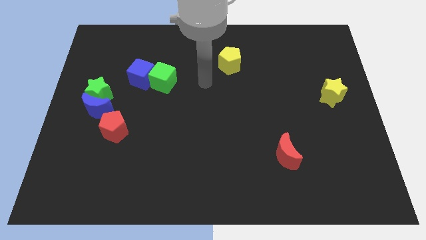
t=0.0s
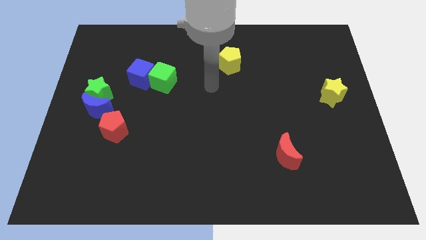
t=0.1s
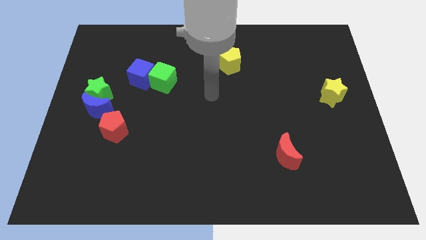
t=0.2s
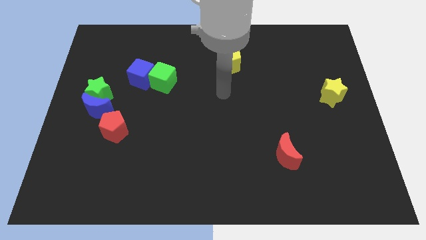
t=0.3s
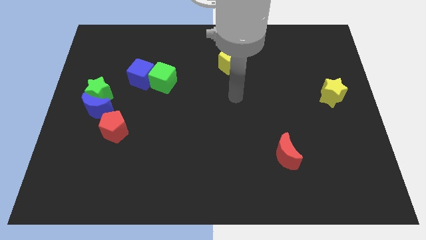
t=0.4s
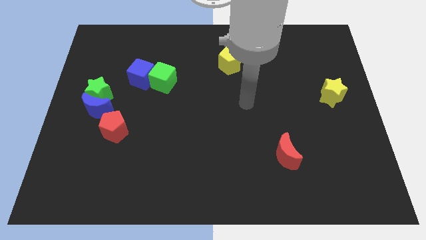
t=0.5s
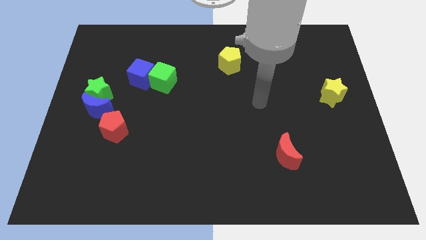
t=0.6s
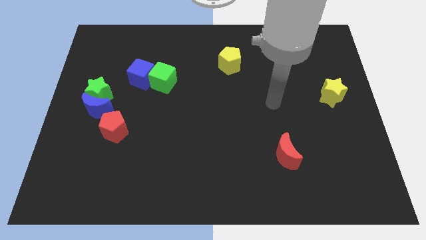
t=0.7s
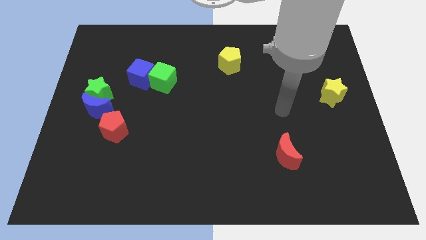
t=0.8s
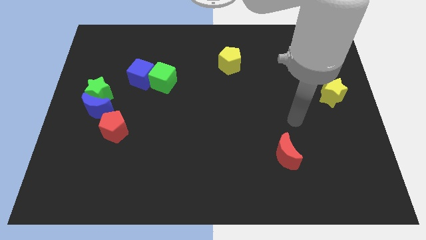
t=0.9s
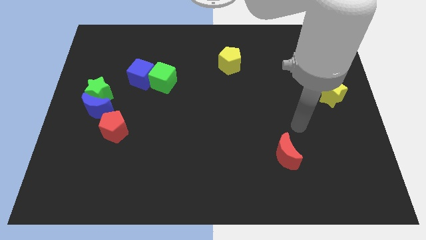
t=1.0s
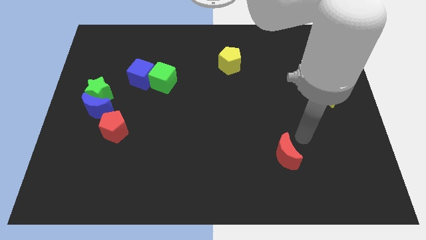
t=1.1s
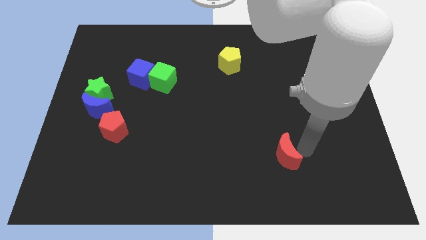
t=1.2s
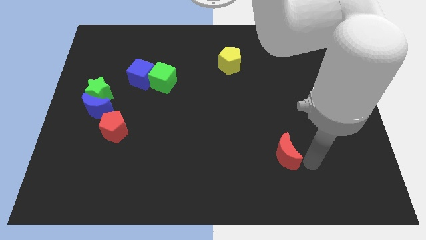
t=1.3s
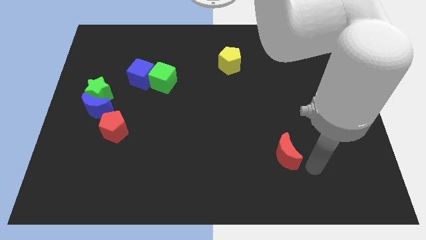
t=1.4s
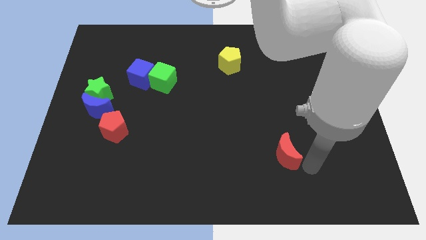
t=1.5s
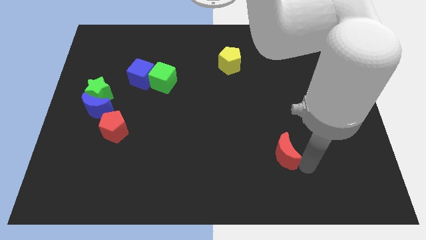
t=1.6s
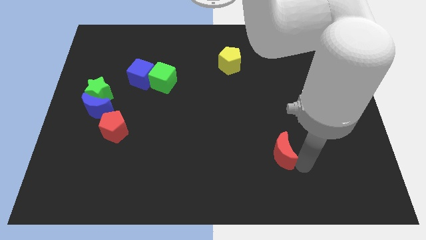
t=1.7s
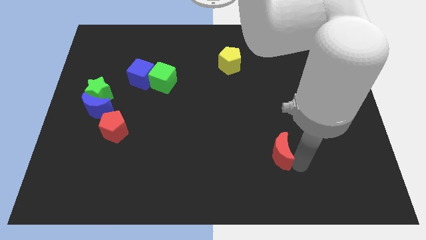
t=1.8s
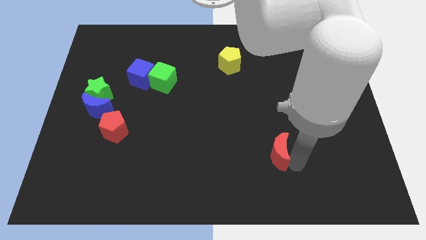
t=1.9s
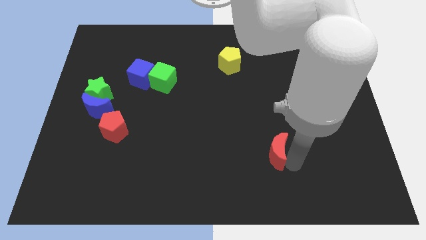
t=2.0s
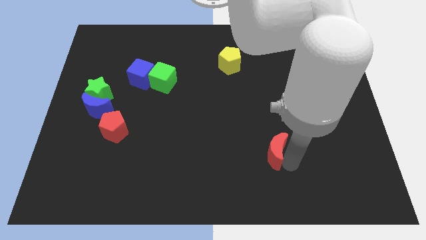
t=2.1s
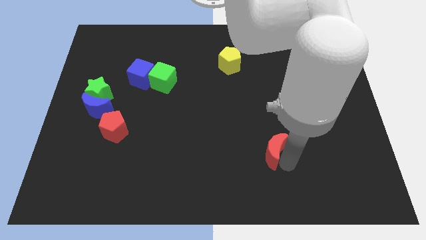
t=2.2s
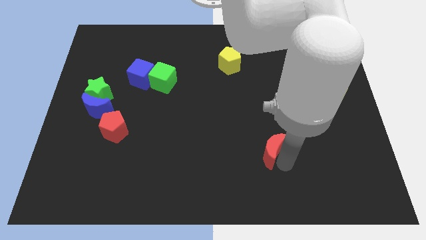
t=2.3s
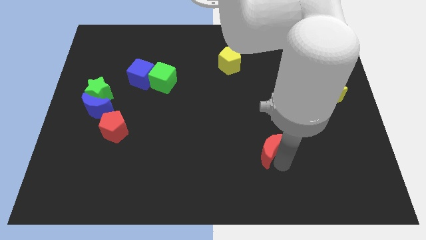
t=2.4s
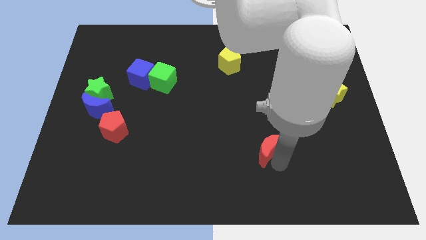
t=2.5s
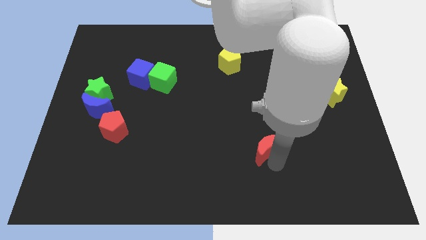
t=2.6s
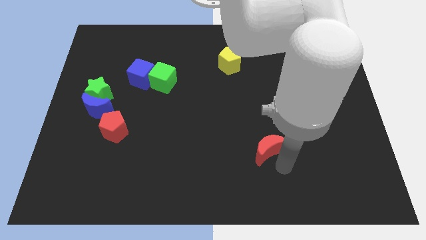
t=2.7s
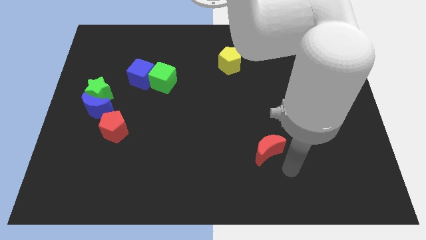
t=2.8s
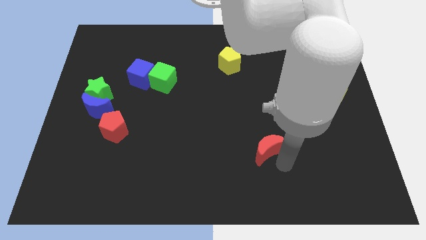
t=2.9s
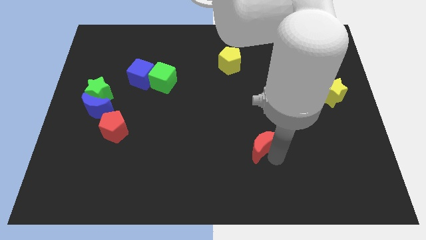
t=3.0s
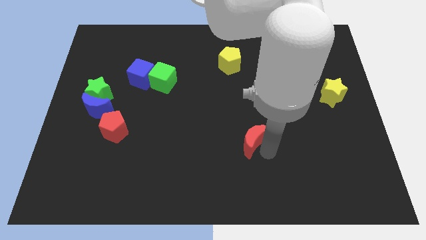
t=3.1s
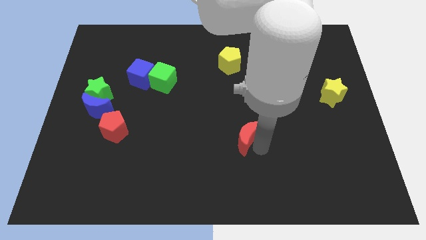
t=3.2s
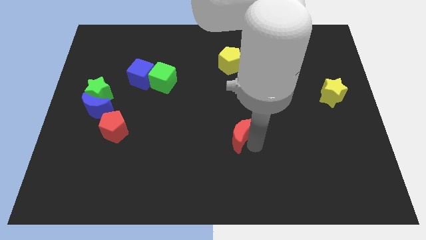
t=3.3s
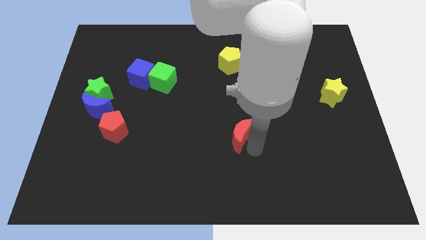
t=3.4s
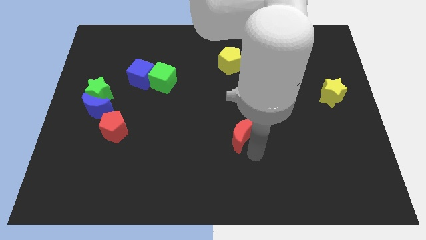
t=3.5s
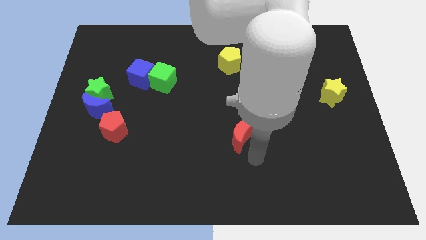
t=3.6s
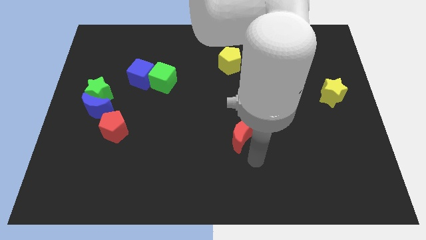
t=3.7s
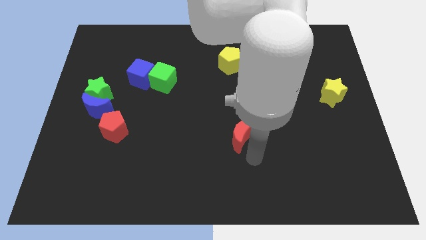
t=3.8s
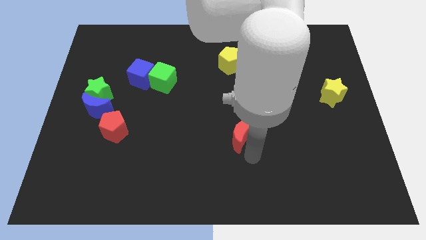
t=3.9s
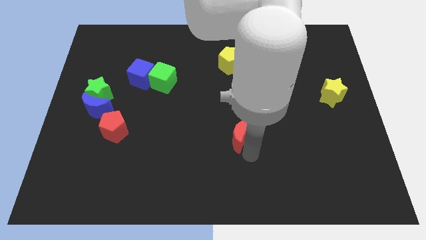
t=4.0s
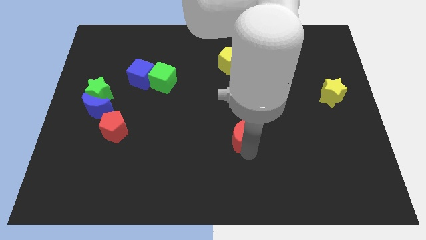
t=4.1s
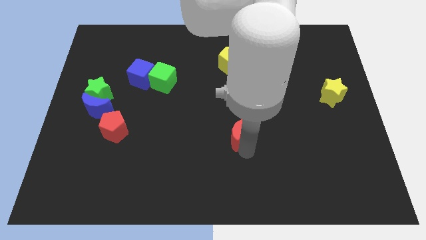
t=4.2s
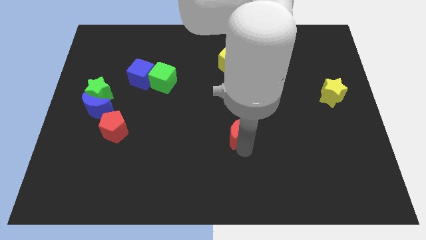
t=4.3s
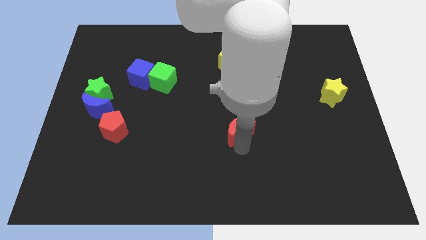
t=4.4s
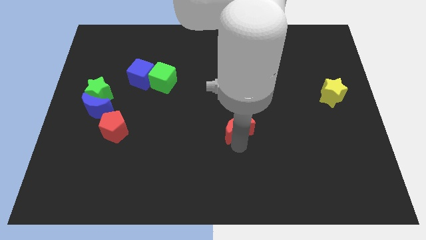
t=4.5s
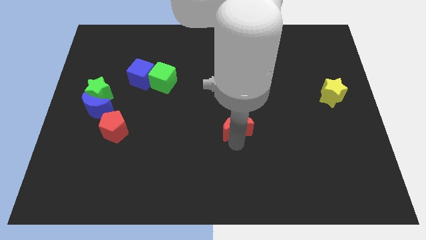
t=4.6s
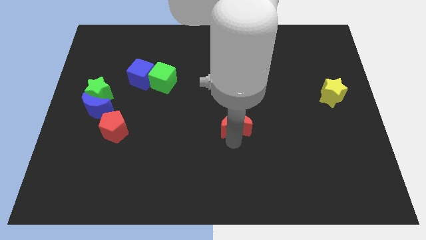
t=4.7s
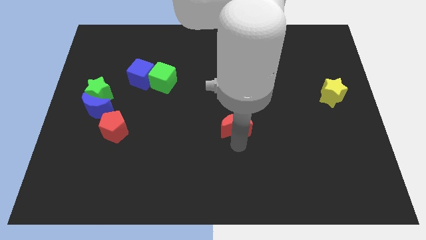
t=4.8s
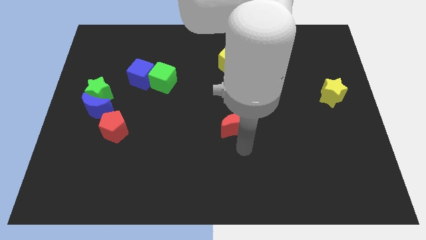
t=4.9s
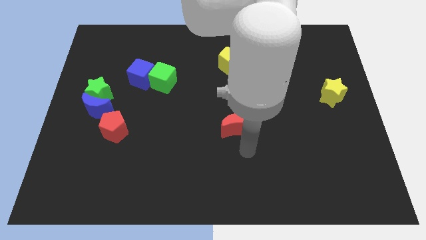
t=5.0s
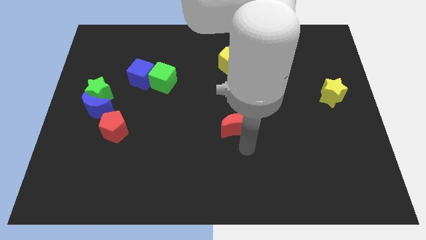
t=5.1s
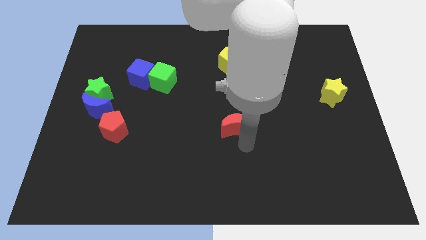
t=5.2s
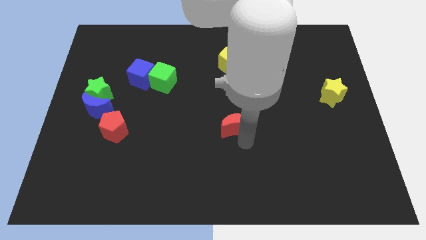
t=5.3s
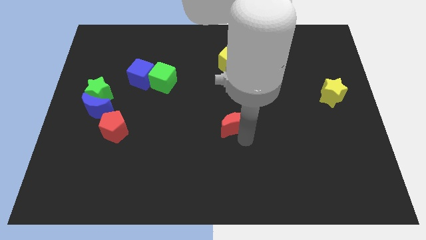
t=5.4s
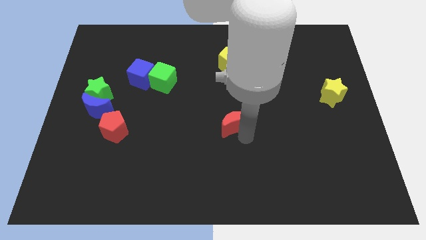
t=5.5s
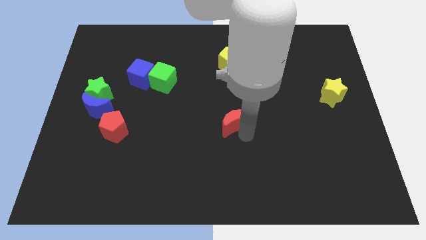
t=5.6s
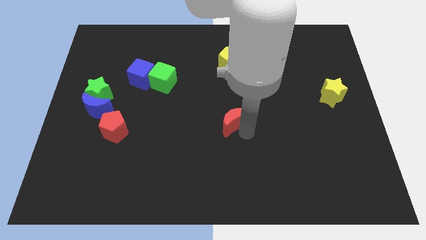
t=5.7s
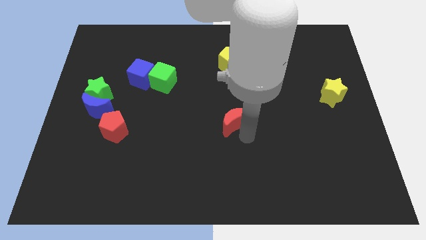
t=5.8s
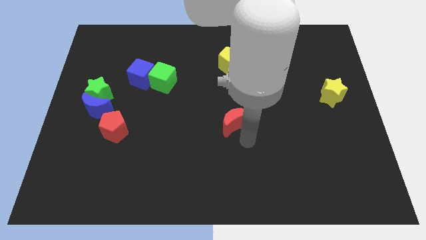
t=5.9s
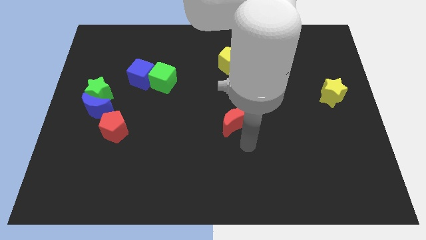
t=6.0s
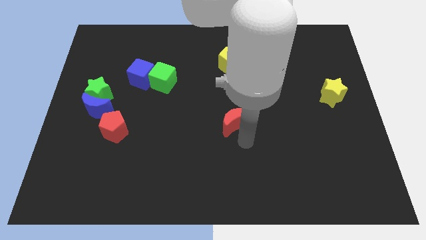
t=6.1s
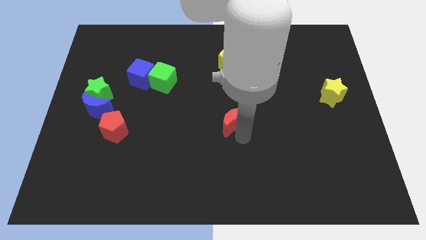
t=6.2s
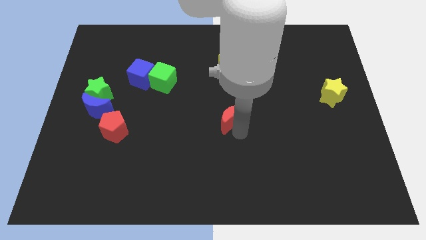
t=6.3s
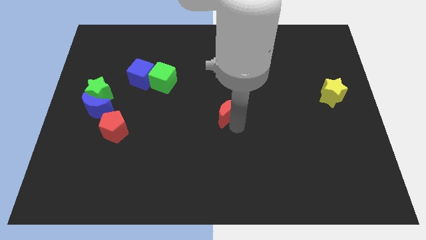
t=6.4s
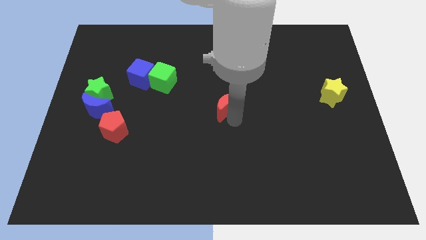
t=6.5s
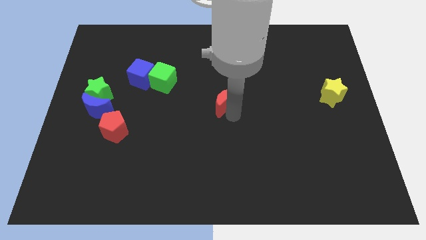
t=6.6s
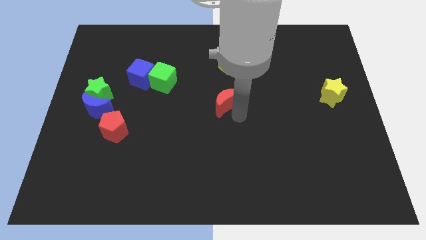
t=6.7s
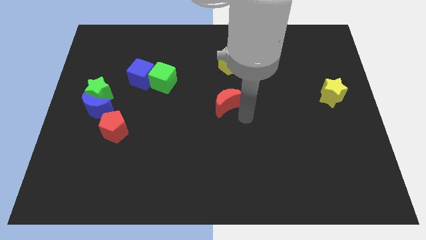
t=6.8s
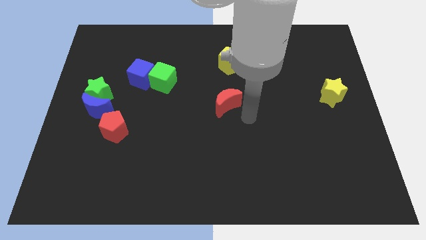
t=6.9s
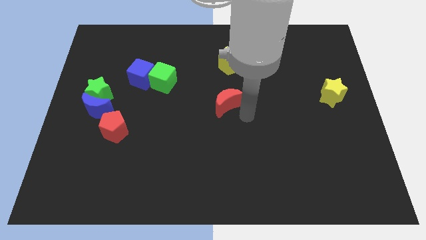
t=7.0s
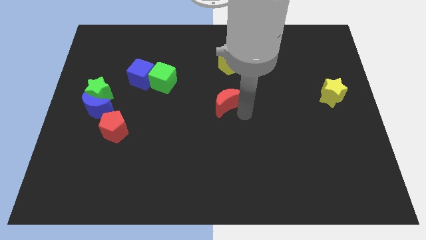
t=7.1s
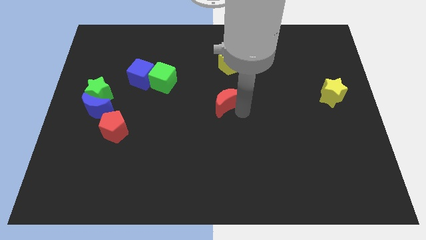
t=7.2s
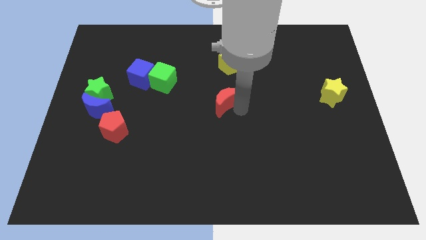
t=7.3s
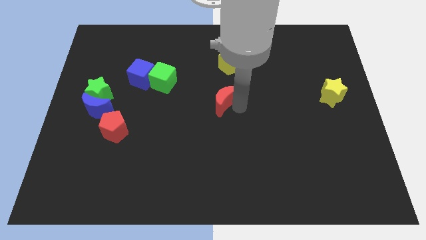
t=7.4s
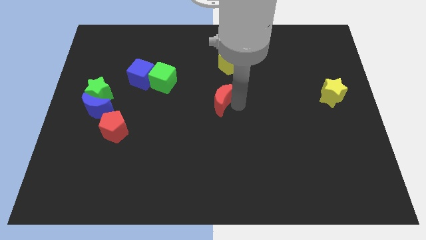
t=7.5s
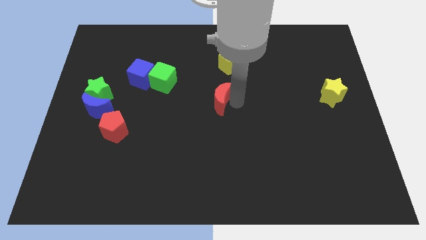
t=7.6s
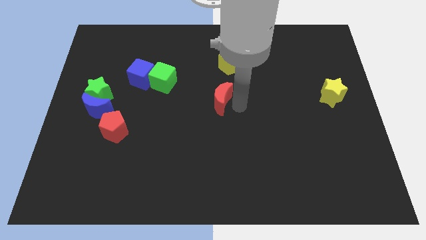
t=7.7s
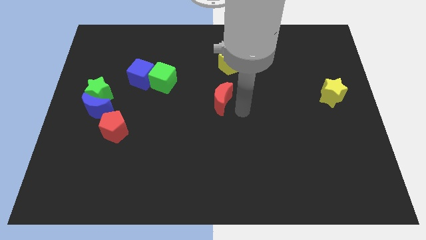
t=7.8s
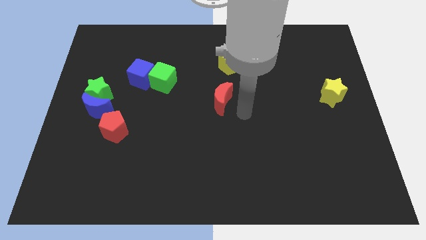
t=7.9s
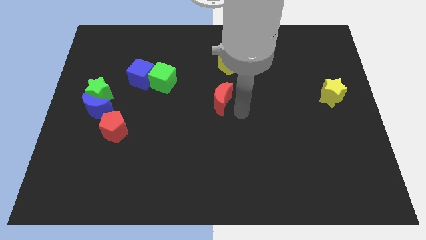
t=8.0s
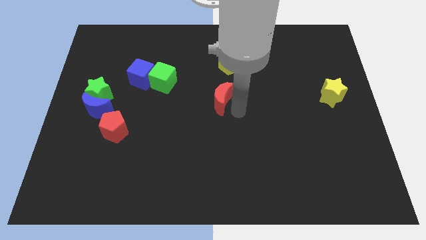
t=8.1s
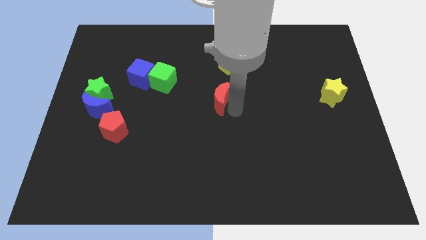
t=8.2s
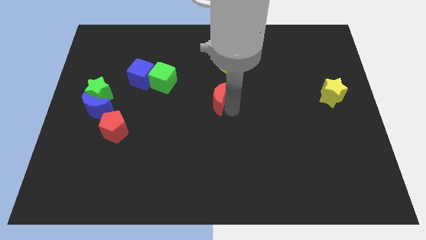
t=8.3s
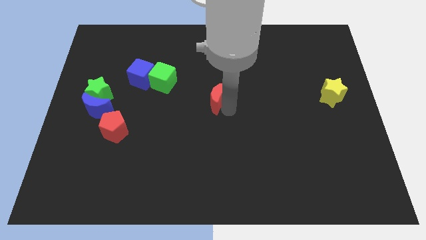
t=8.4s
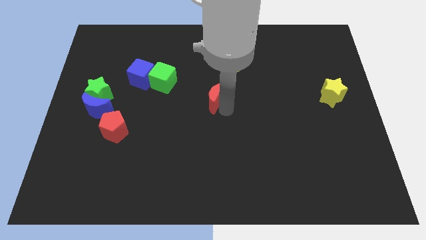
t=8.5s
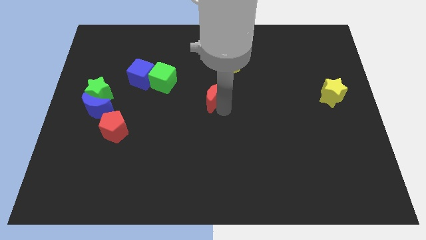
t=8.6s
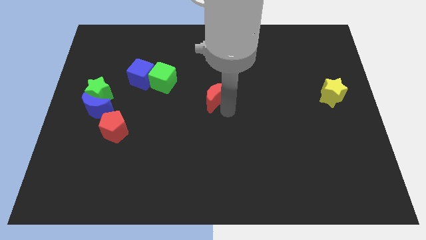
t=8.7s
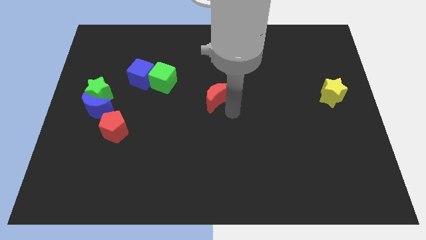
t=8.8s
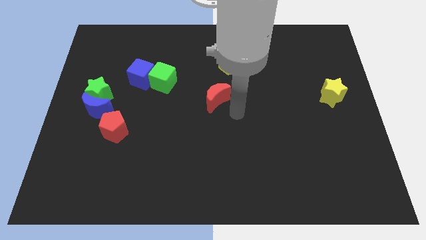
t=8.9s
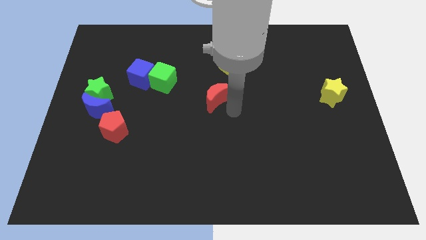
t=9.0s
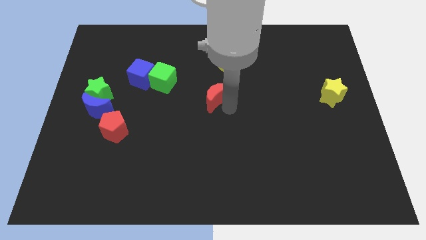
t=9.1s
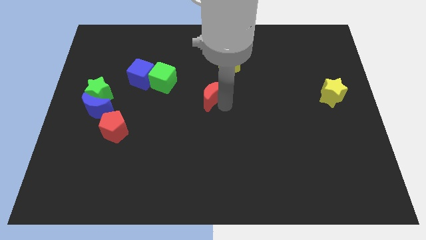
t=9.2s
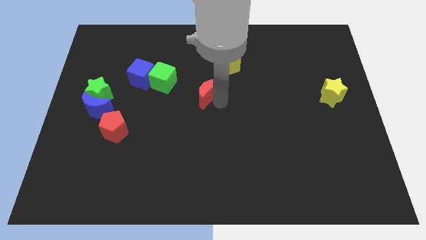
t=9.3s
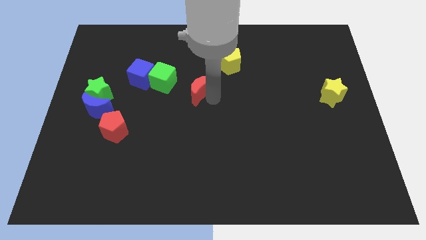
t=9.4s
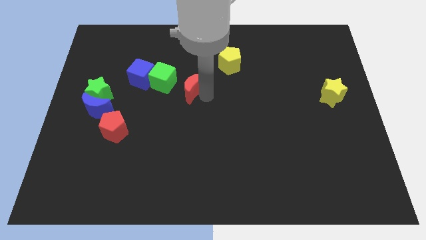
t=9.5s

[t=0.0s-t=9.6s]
move the red moon just right of the blue cube
